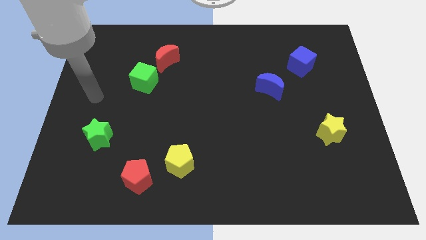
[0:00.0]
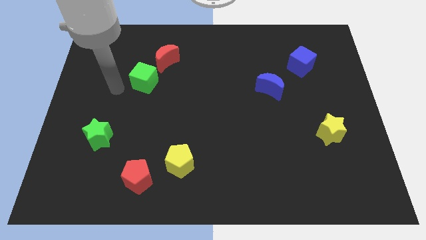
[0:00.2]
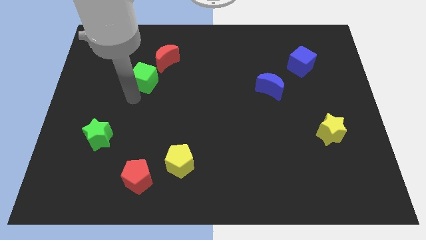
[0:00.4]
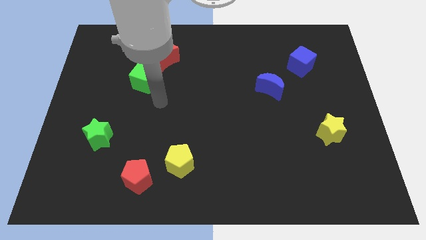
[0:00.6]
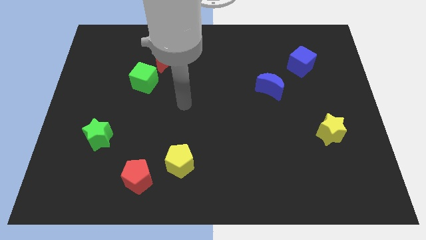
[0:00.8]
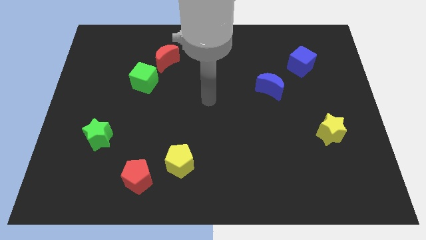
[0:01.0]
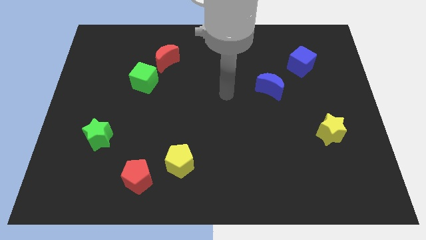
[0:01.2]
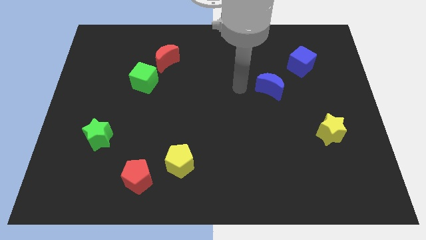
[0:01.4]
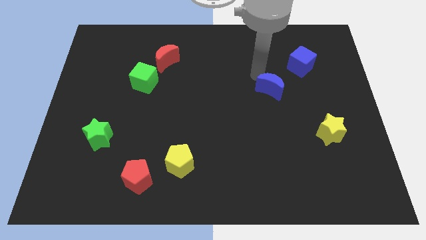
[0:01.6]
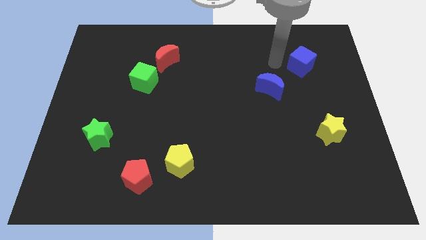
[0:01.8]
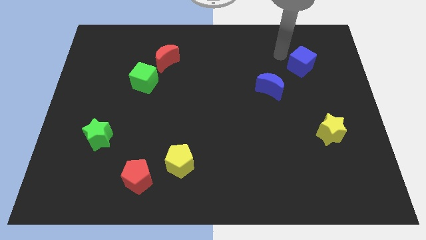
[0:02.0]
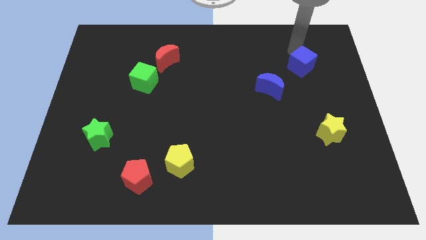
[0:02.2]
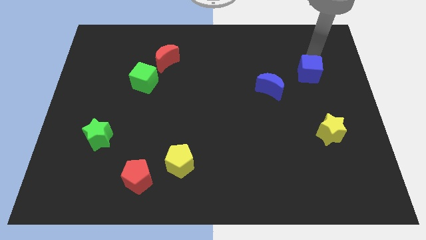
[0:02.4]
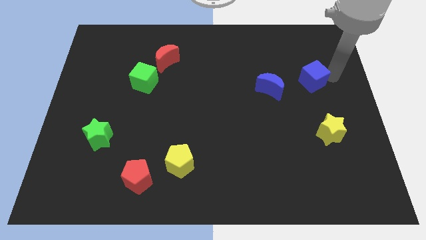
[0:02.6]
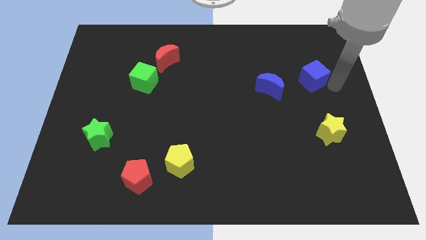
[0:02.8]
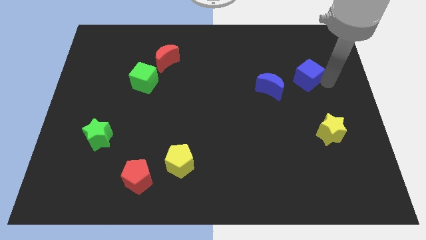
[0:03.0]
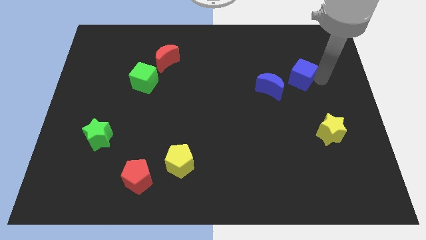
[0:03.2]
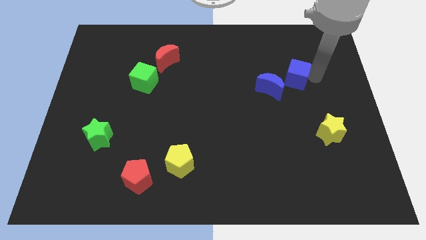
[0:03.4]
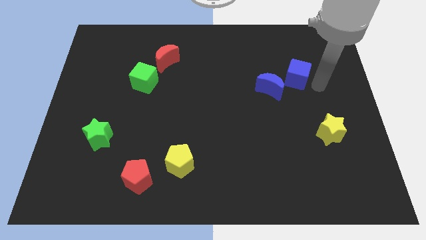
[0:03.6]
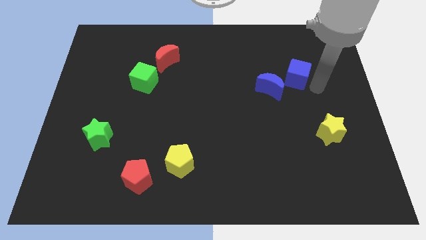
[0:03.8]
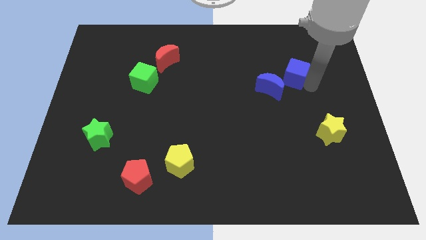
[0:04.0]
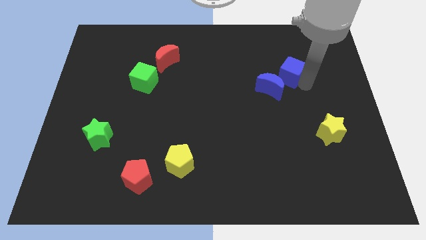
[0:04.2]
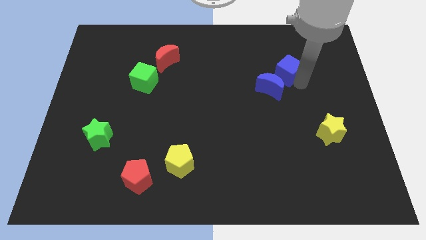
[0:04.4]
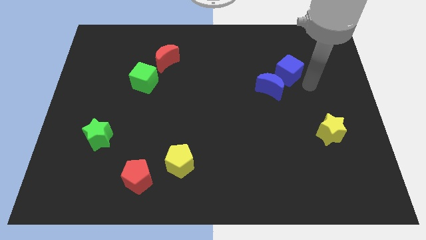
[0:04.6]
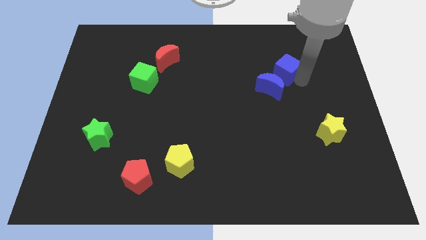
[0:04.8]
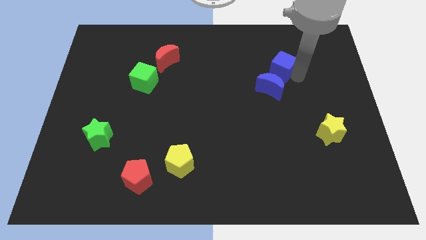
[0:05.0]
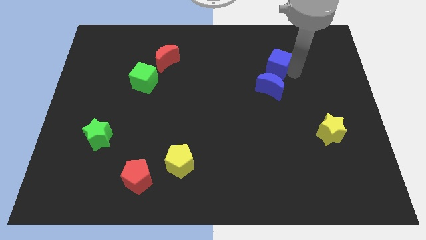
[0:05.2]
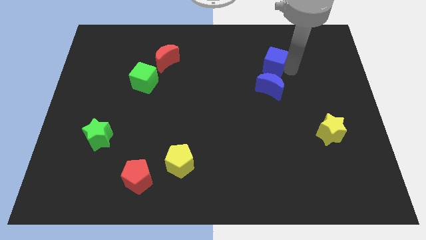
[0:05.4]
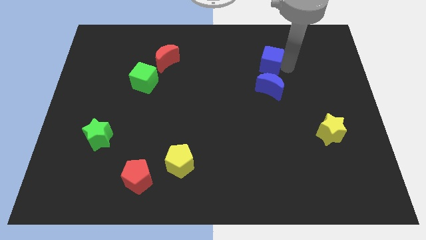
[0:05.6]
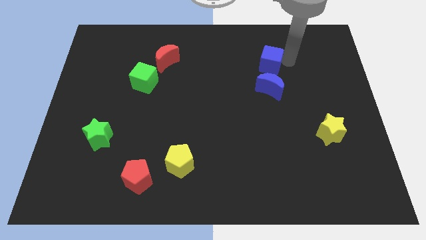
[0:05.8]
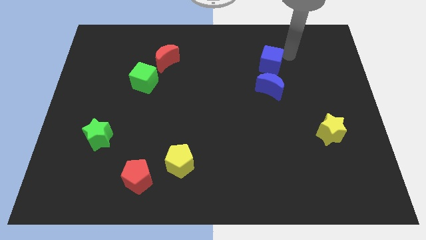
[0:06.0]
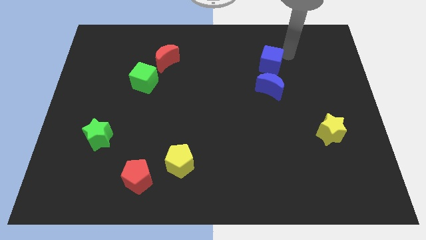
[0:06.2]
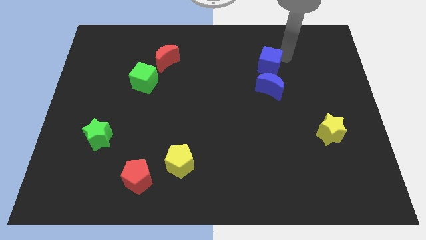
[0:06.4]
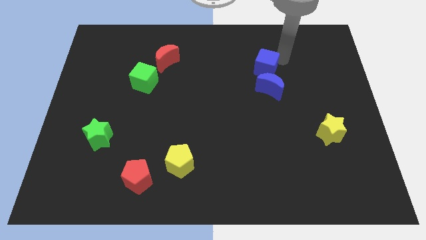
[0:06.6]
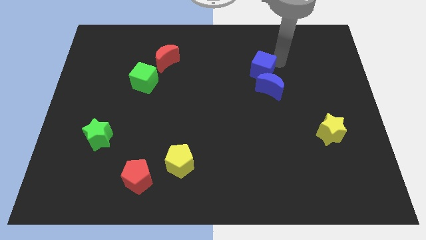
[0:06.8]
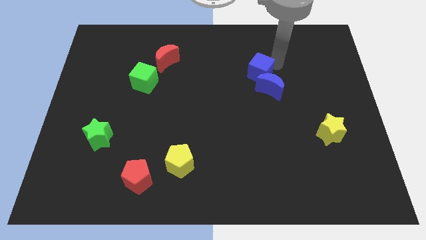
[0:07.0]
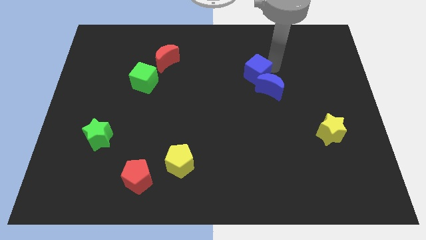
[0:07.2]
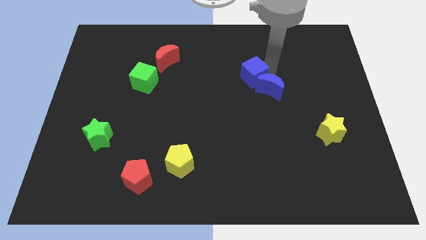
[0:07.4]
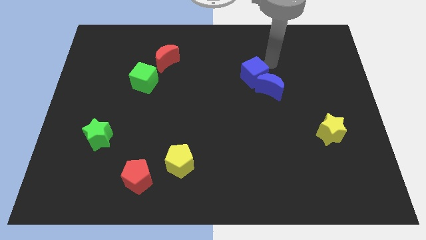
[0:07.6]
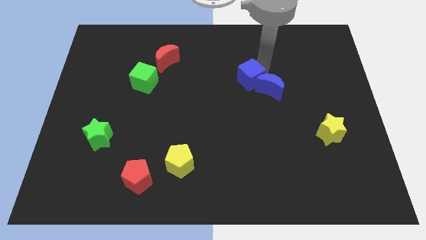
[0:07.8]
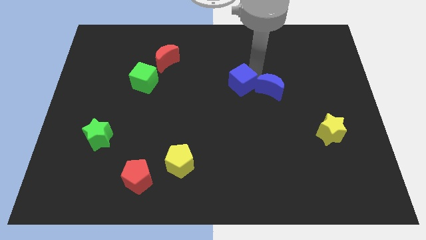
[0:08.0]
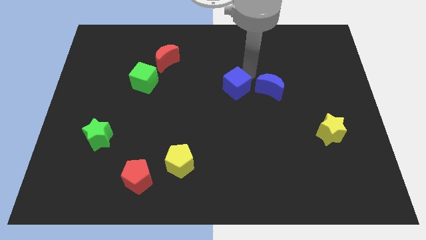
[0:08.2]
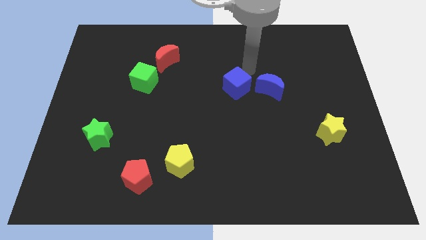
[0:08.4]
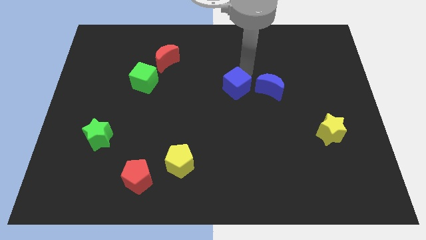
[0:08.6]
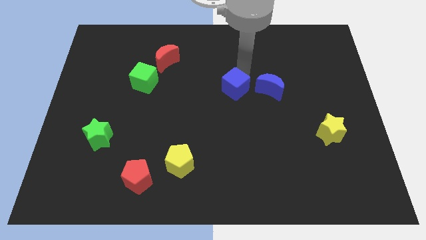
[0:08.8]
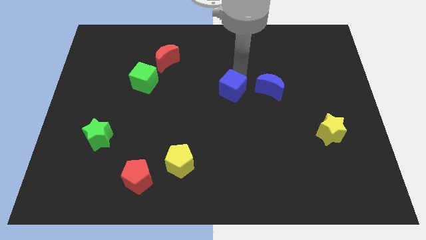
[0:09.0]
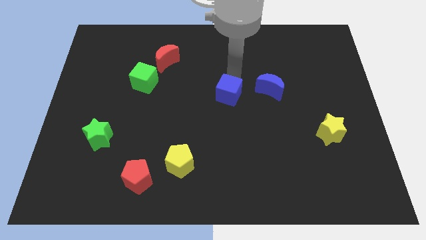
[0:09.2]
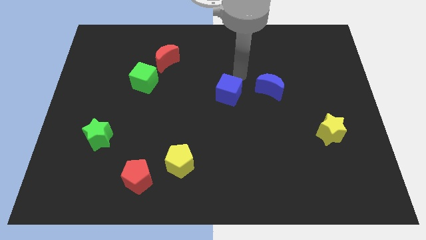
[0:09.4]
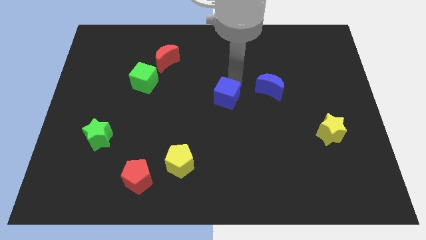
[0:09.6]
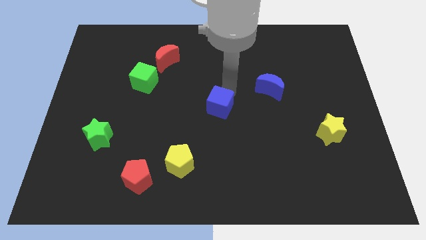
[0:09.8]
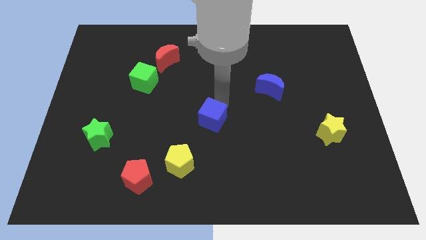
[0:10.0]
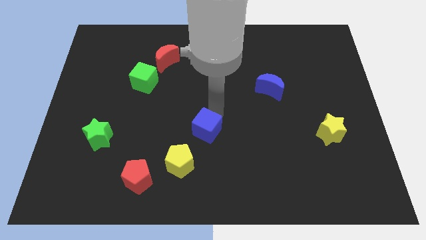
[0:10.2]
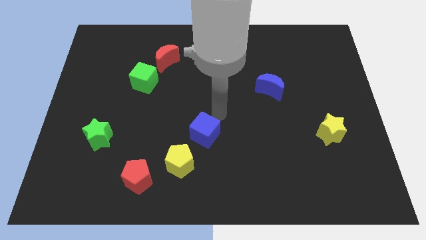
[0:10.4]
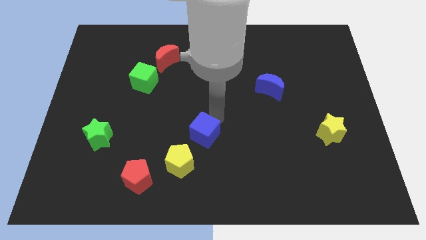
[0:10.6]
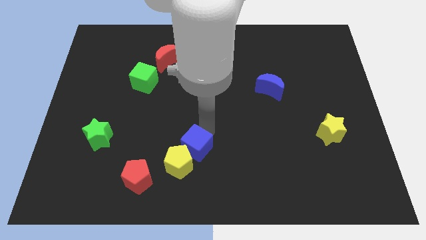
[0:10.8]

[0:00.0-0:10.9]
push the blue cube to the yellow pentagon

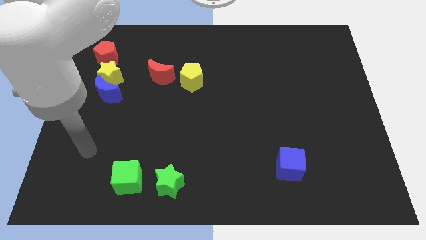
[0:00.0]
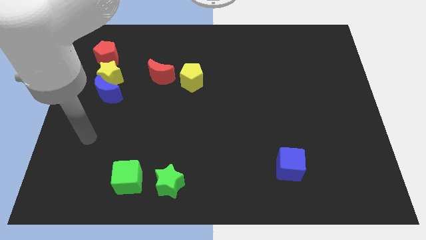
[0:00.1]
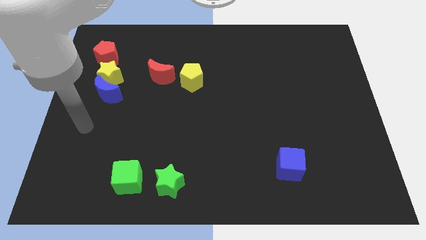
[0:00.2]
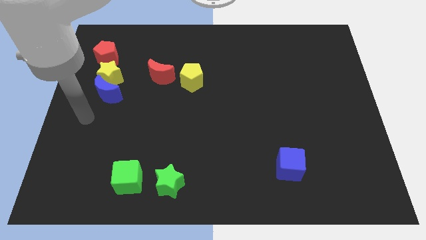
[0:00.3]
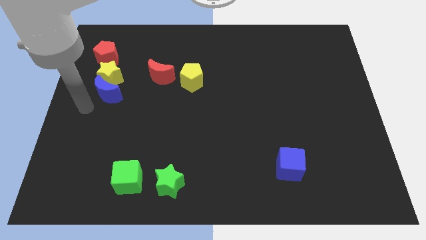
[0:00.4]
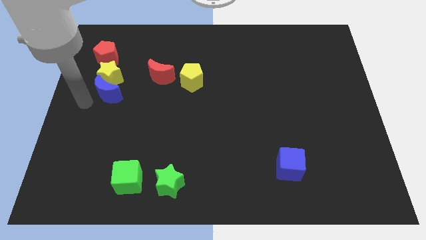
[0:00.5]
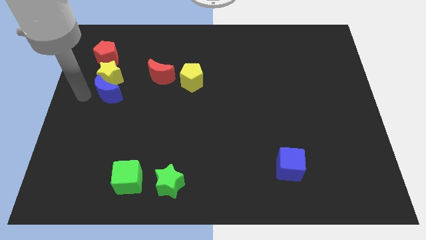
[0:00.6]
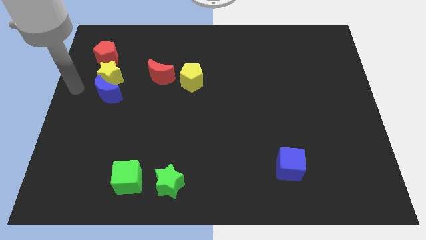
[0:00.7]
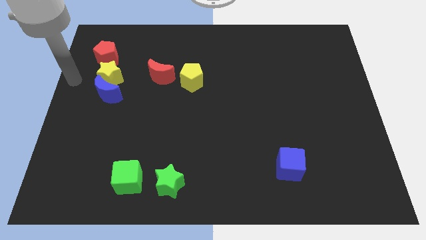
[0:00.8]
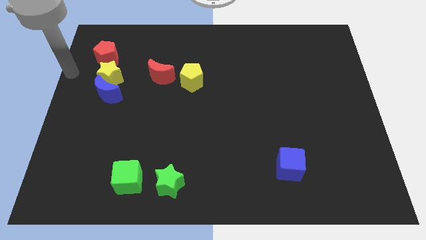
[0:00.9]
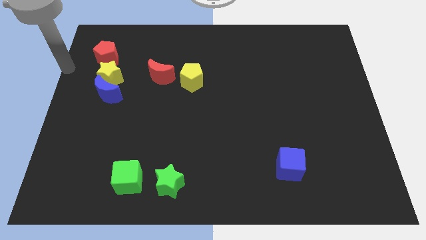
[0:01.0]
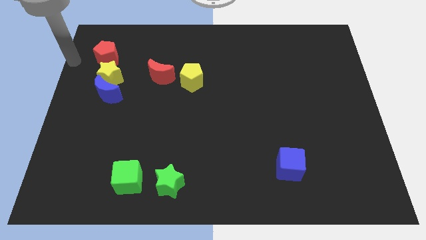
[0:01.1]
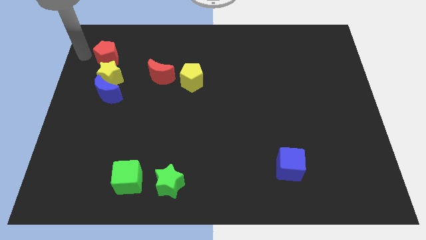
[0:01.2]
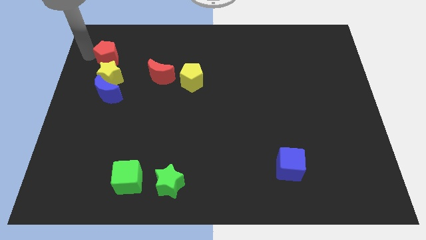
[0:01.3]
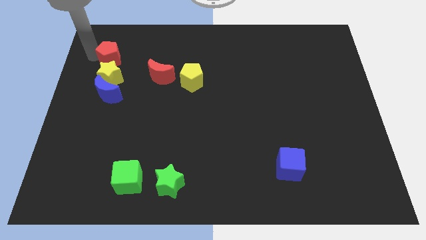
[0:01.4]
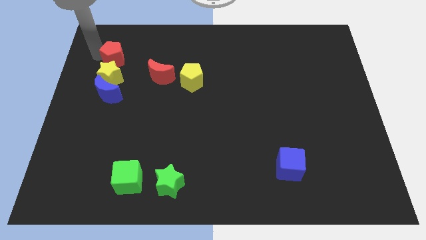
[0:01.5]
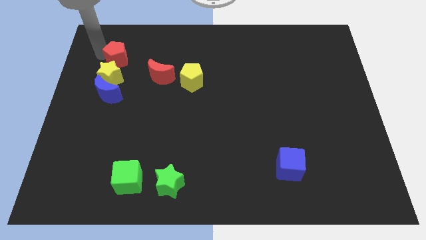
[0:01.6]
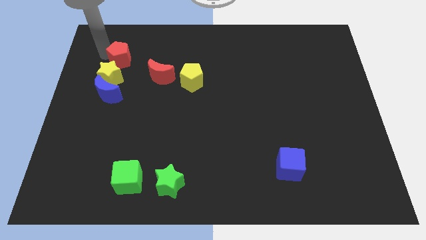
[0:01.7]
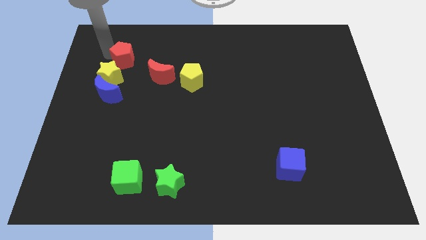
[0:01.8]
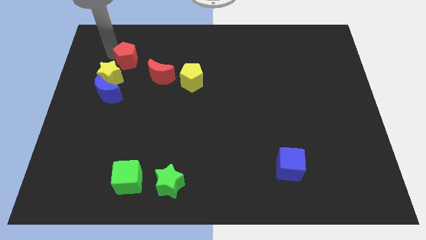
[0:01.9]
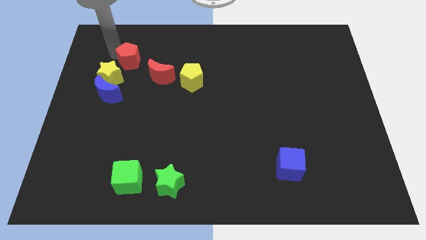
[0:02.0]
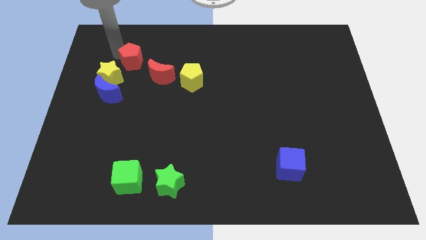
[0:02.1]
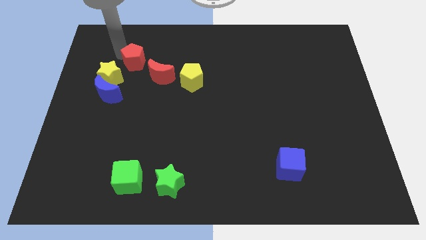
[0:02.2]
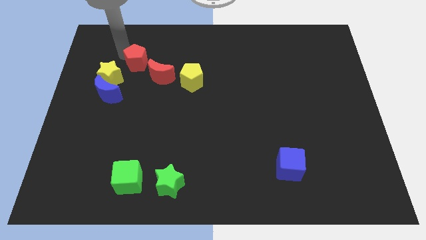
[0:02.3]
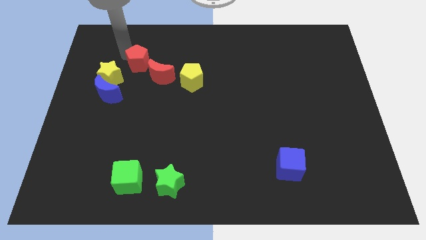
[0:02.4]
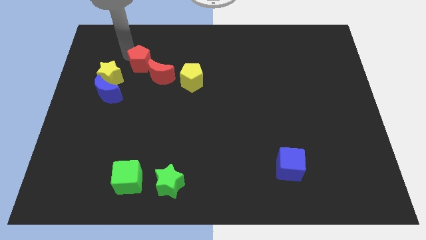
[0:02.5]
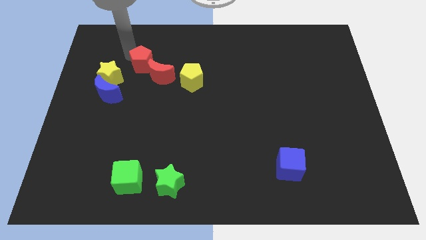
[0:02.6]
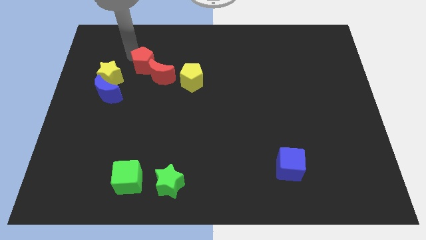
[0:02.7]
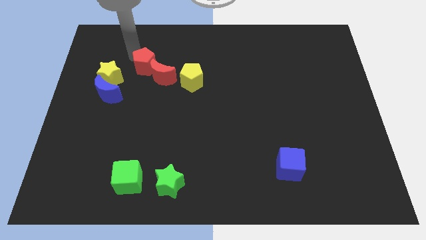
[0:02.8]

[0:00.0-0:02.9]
put the red pentagon towards the red moon

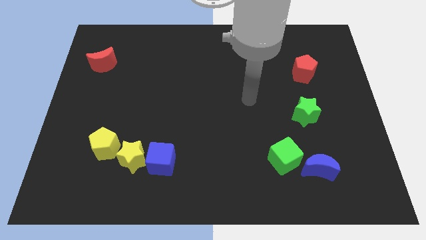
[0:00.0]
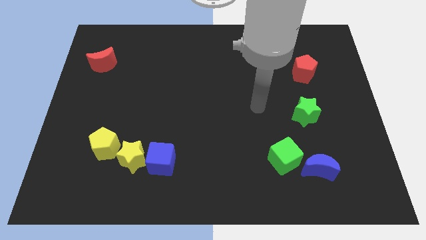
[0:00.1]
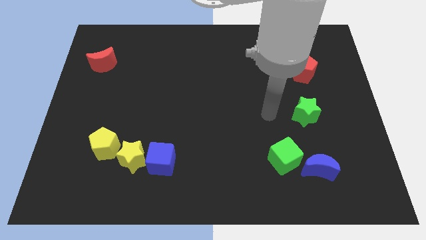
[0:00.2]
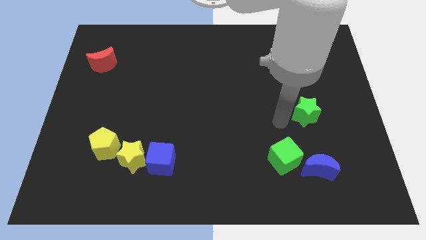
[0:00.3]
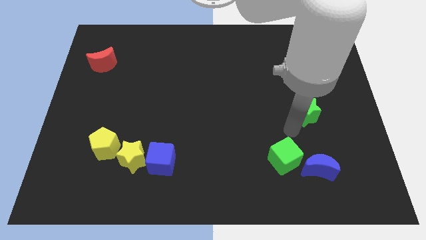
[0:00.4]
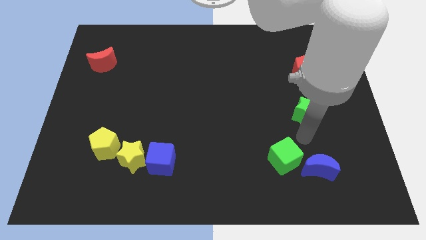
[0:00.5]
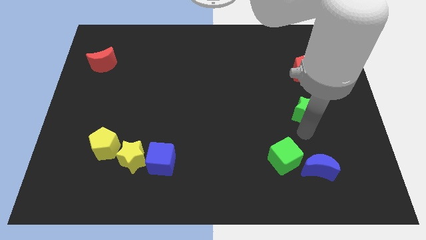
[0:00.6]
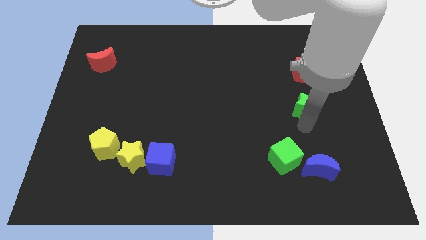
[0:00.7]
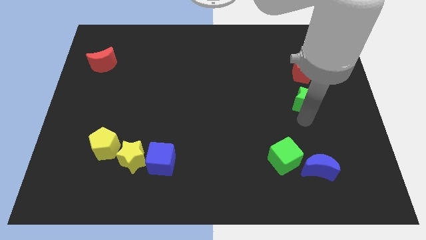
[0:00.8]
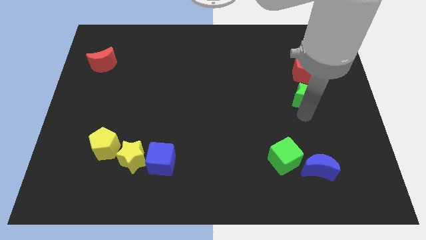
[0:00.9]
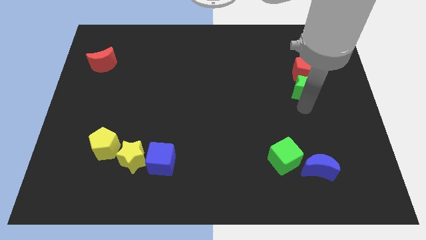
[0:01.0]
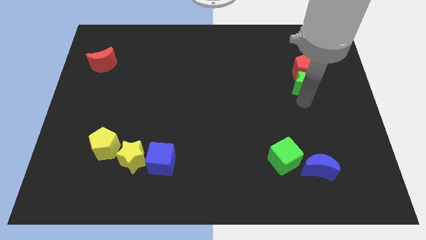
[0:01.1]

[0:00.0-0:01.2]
move the green star close to the red pentagon
